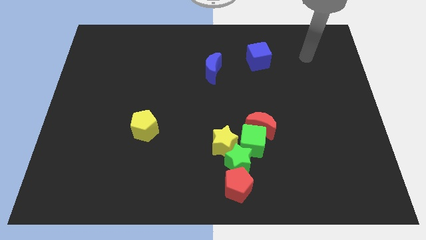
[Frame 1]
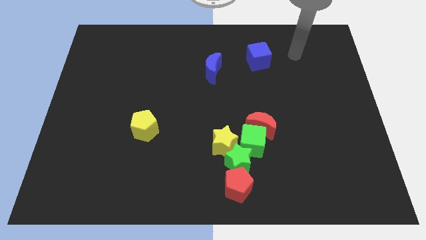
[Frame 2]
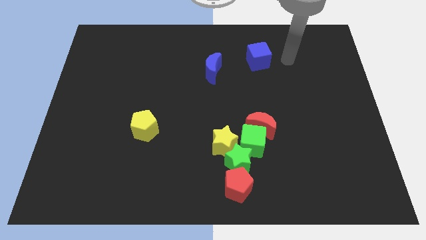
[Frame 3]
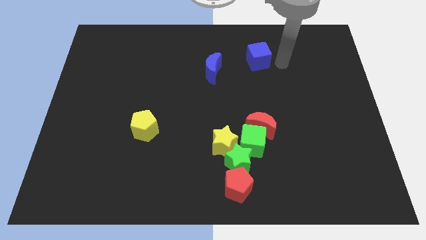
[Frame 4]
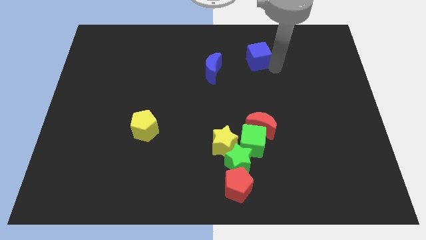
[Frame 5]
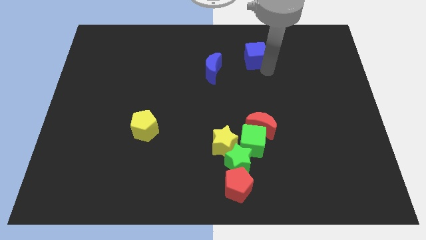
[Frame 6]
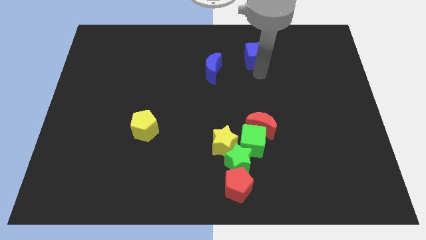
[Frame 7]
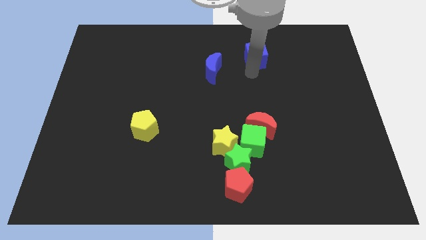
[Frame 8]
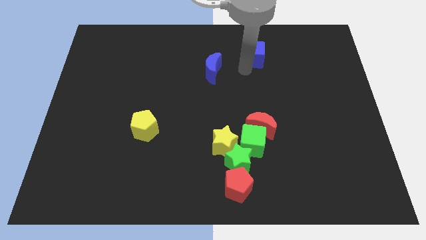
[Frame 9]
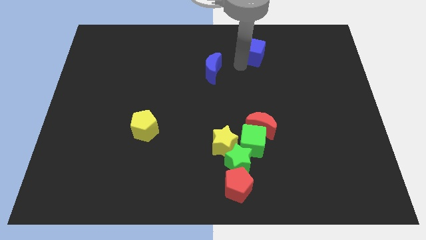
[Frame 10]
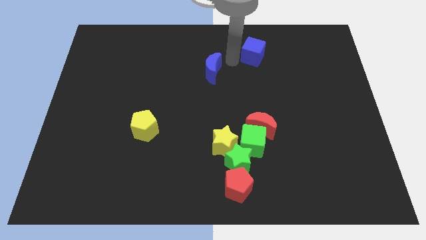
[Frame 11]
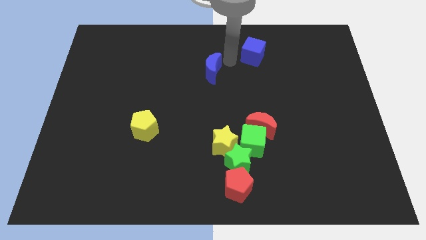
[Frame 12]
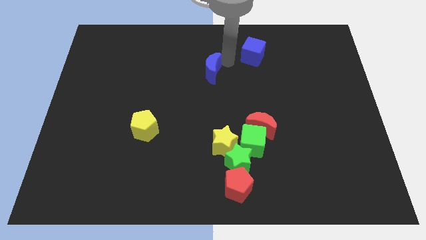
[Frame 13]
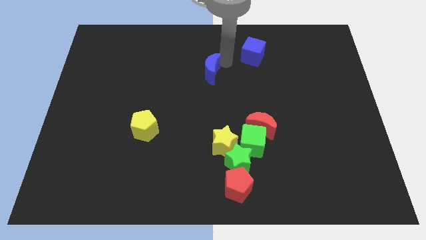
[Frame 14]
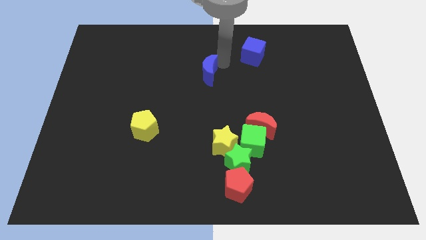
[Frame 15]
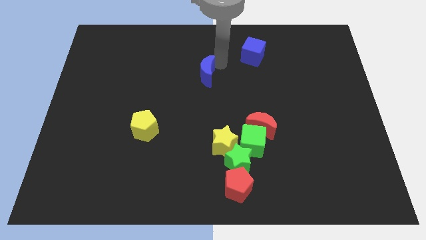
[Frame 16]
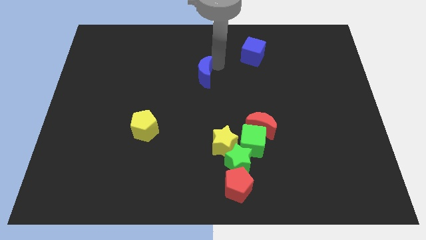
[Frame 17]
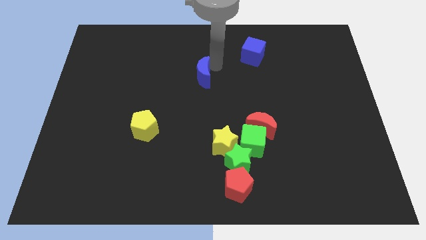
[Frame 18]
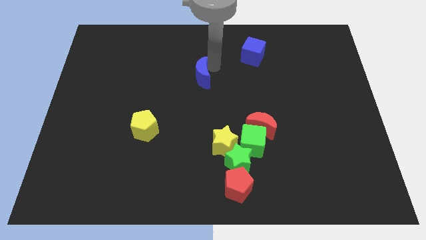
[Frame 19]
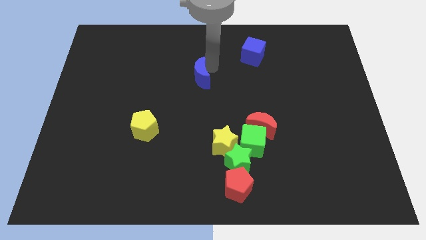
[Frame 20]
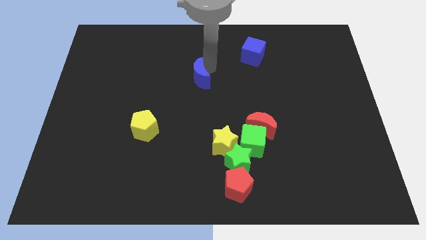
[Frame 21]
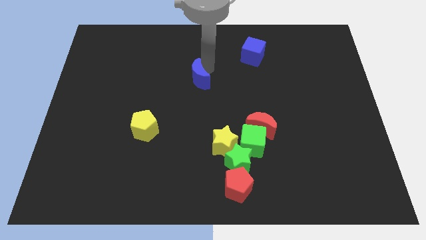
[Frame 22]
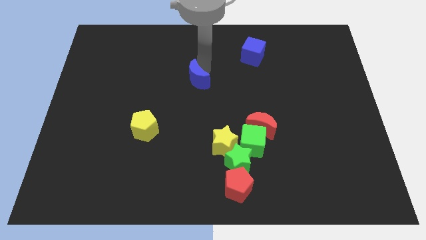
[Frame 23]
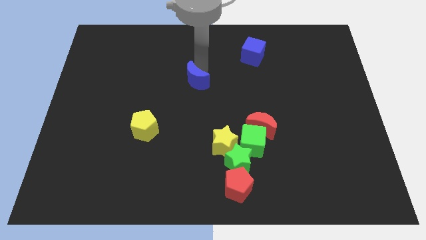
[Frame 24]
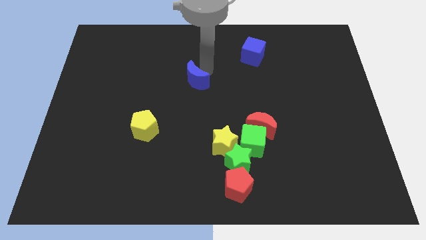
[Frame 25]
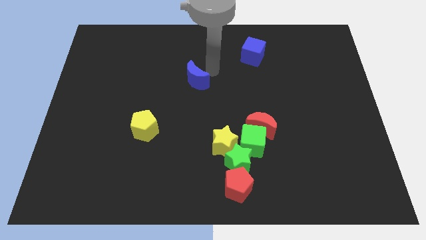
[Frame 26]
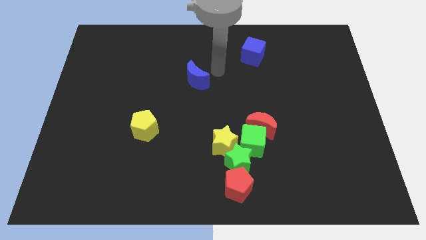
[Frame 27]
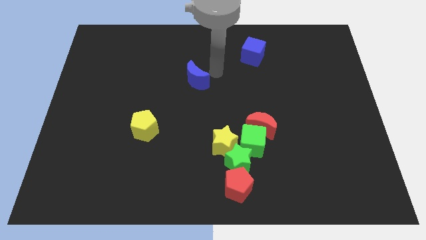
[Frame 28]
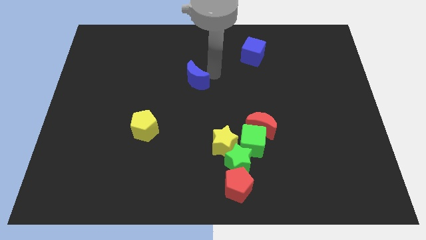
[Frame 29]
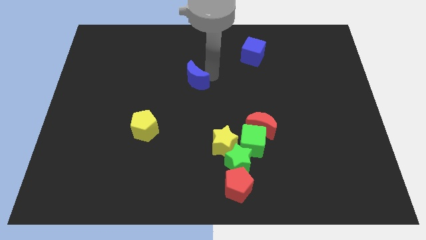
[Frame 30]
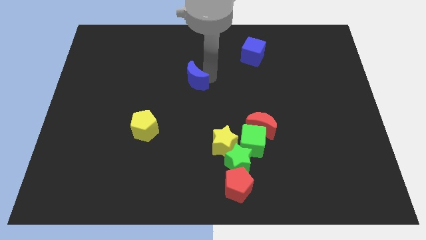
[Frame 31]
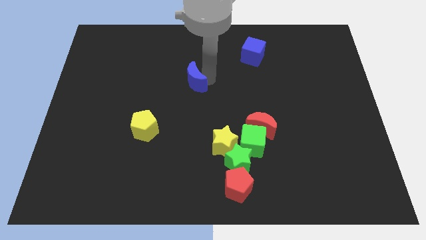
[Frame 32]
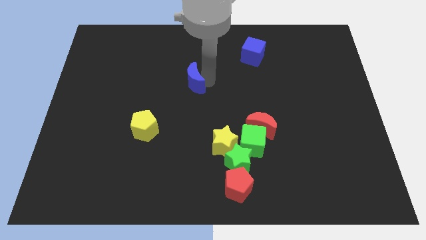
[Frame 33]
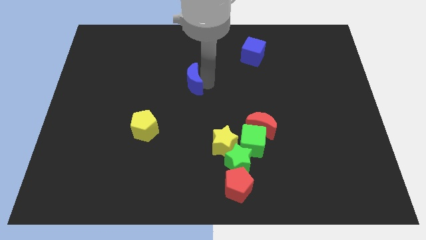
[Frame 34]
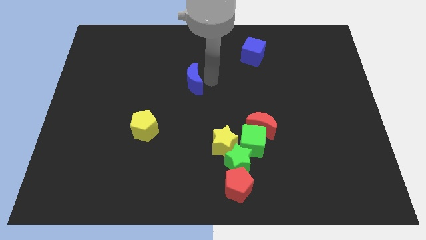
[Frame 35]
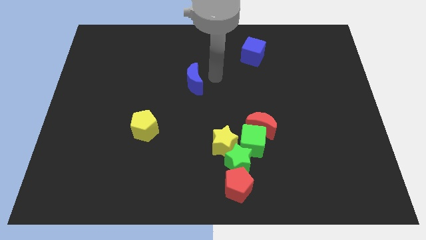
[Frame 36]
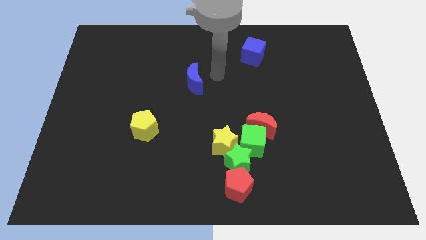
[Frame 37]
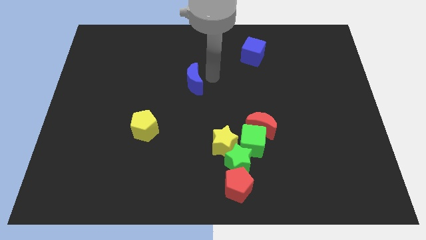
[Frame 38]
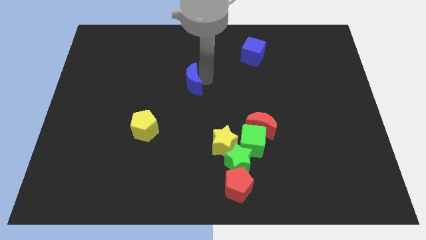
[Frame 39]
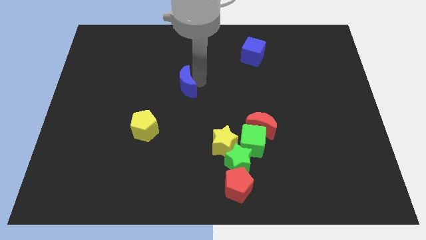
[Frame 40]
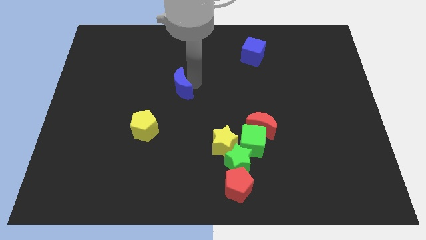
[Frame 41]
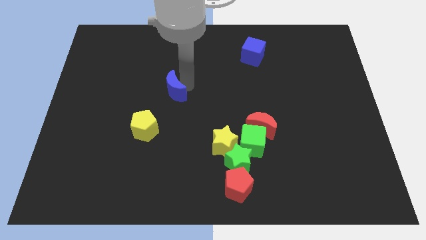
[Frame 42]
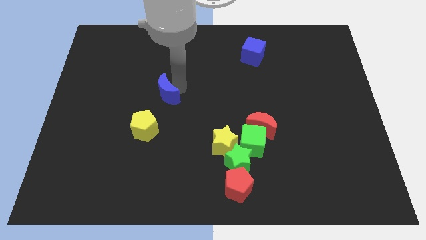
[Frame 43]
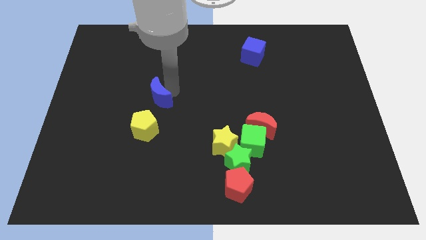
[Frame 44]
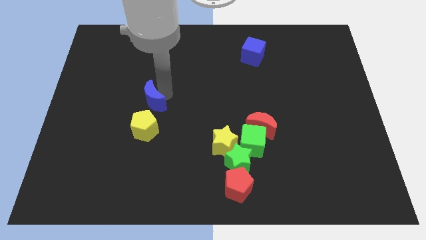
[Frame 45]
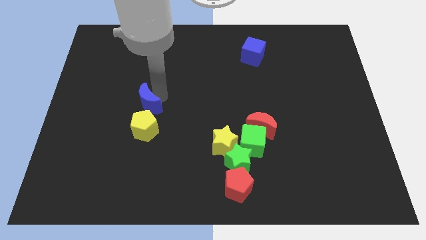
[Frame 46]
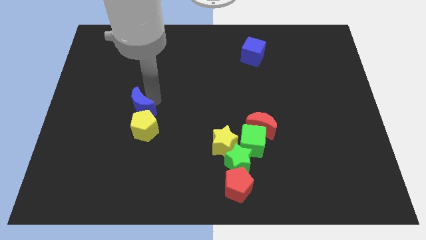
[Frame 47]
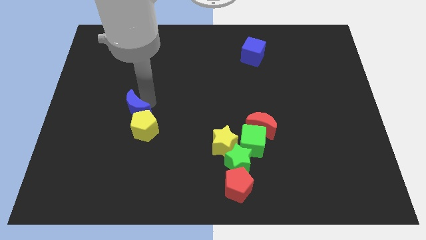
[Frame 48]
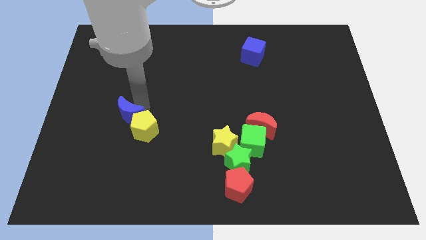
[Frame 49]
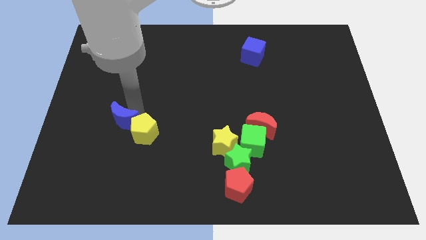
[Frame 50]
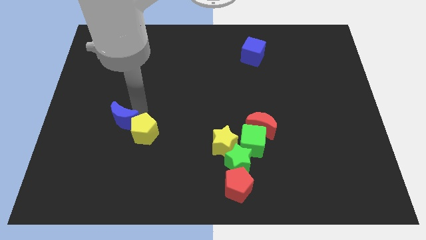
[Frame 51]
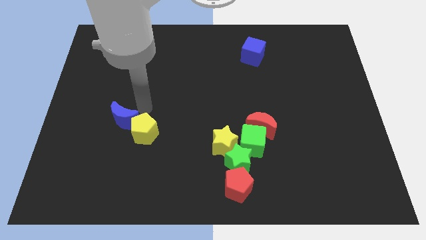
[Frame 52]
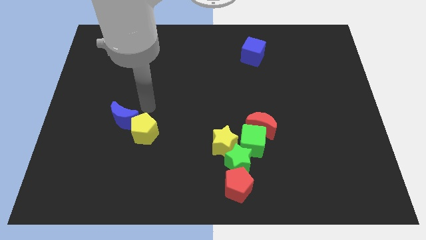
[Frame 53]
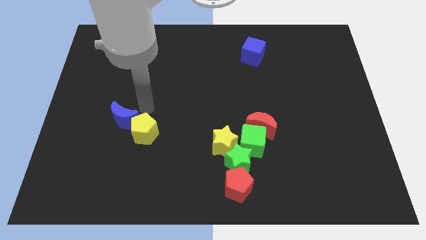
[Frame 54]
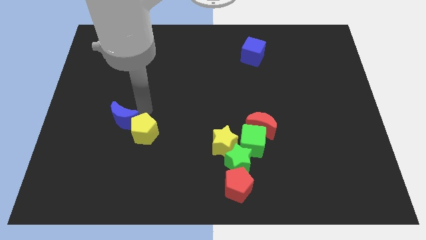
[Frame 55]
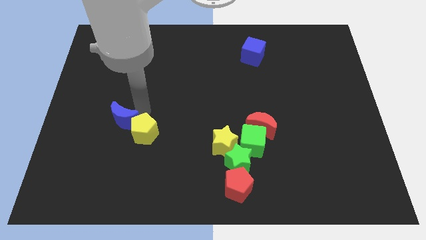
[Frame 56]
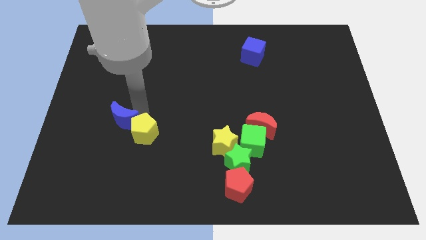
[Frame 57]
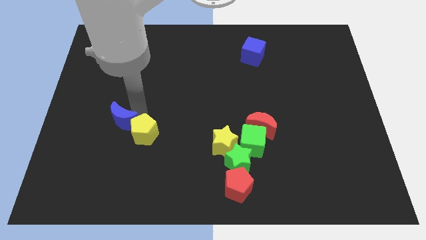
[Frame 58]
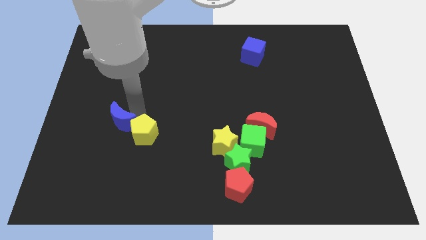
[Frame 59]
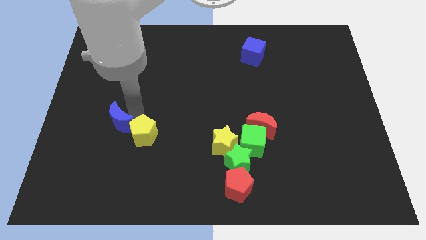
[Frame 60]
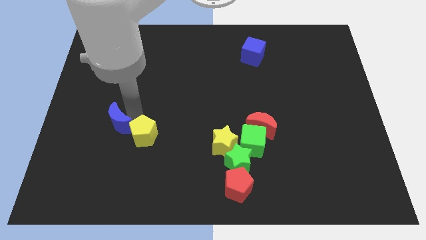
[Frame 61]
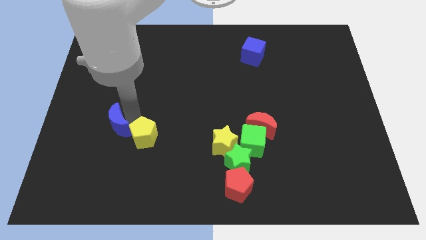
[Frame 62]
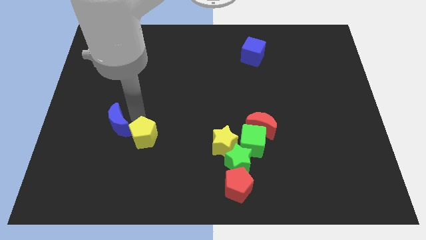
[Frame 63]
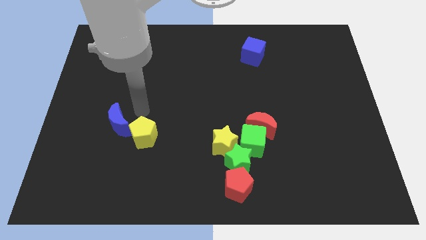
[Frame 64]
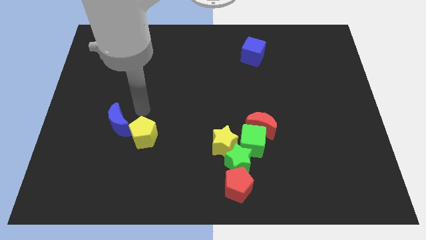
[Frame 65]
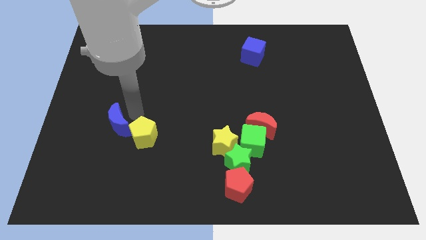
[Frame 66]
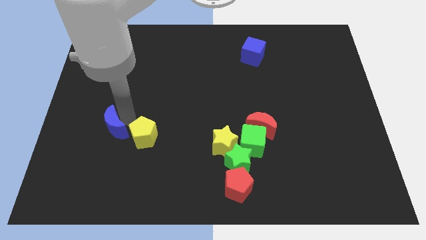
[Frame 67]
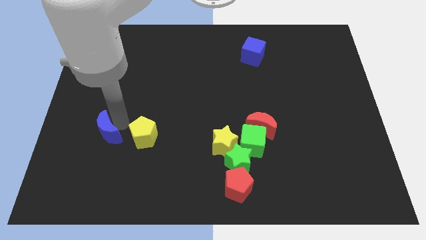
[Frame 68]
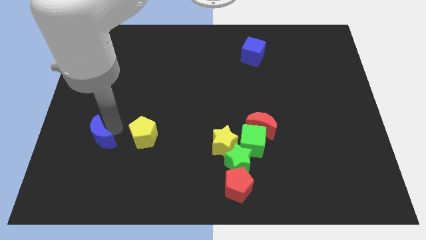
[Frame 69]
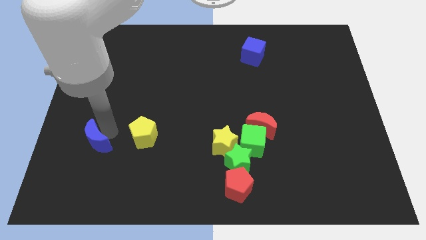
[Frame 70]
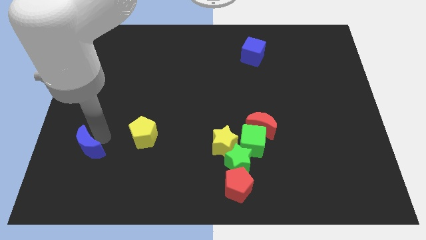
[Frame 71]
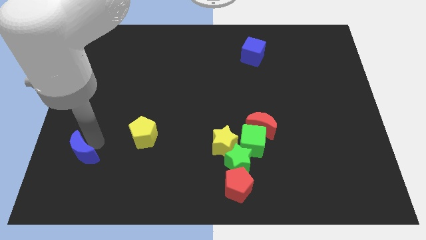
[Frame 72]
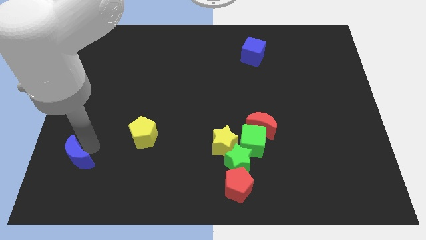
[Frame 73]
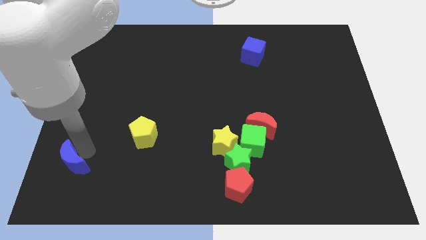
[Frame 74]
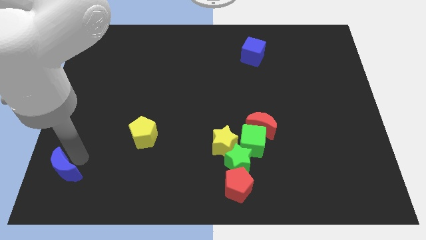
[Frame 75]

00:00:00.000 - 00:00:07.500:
push the blue moon to the bottom left of the board

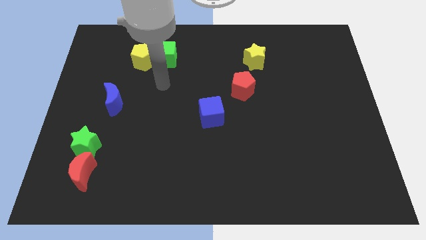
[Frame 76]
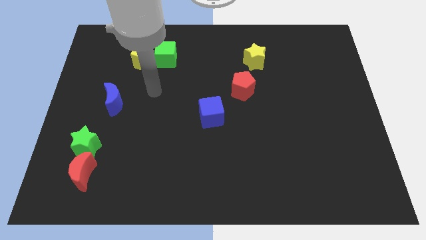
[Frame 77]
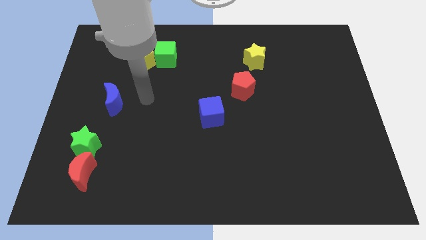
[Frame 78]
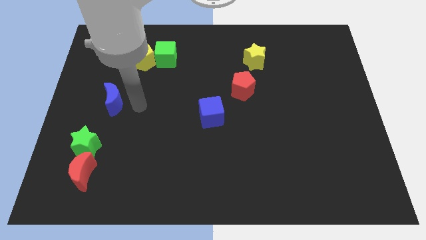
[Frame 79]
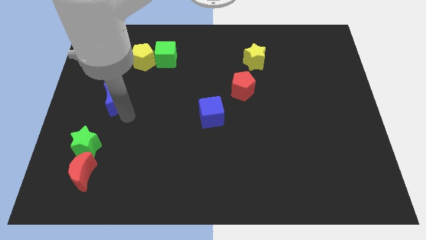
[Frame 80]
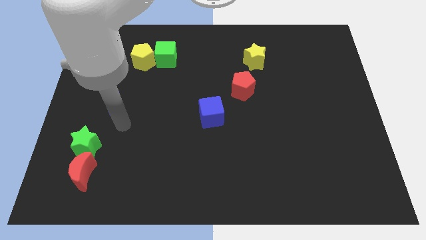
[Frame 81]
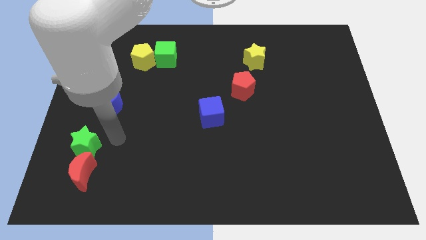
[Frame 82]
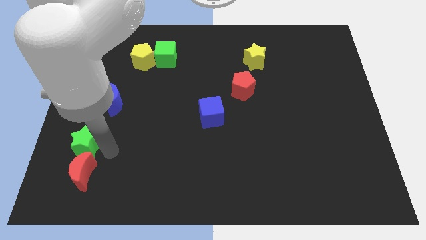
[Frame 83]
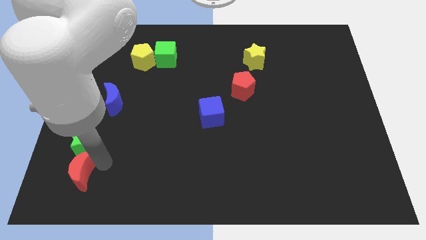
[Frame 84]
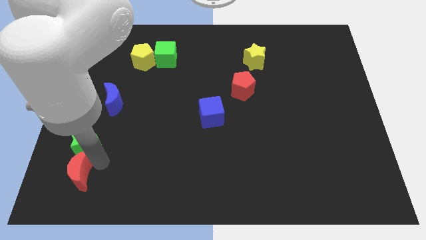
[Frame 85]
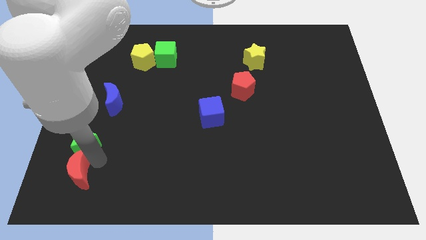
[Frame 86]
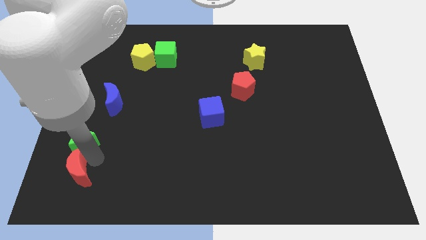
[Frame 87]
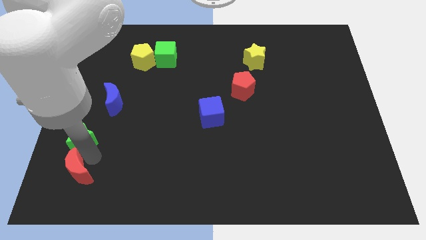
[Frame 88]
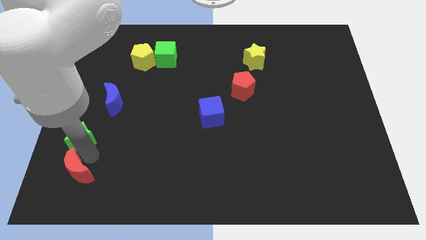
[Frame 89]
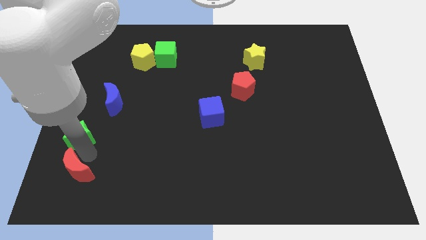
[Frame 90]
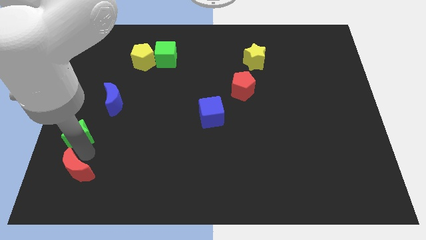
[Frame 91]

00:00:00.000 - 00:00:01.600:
move the green star to the left side of the board
